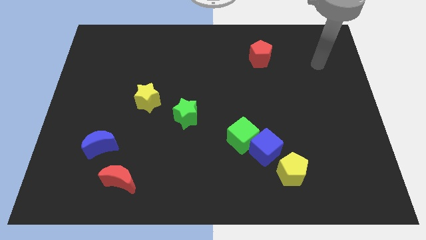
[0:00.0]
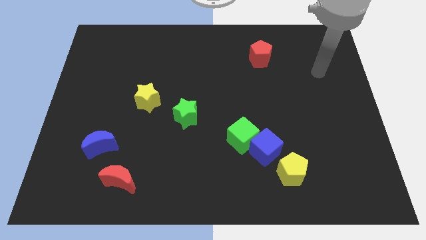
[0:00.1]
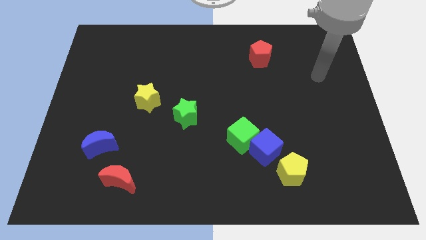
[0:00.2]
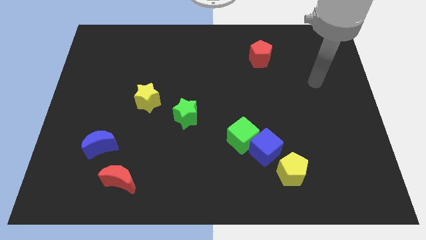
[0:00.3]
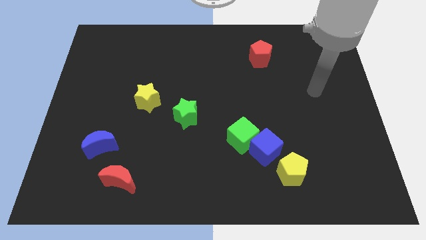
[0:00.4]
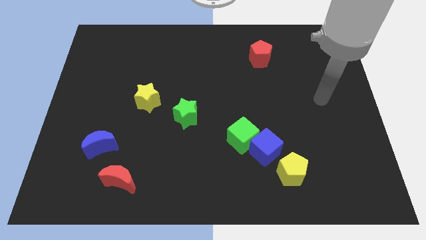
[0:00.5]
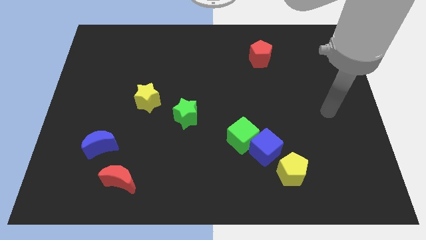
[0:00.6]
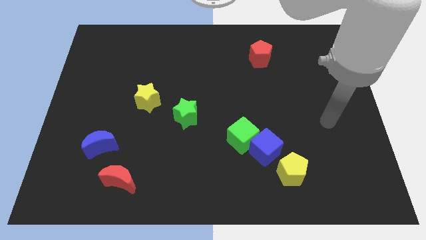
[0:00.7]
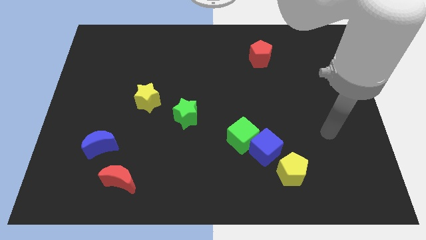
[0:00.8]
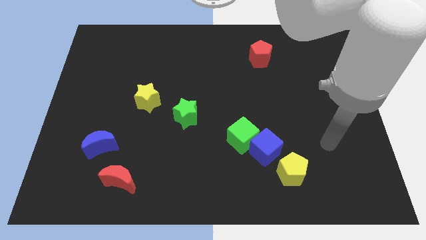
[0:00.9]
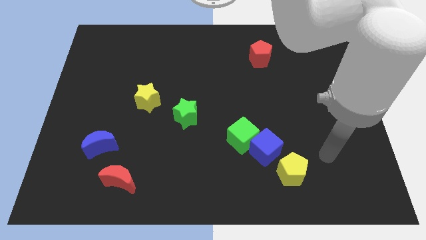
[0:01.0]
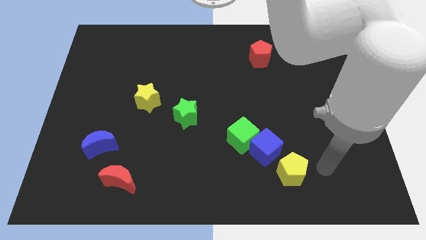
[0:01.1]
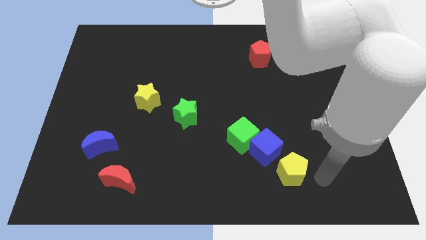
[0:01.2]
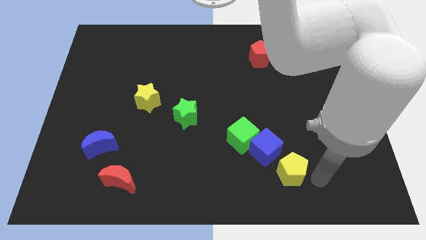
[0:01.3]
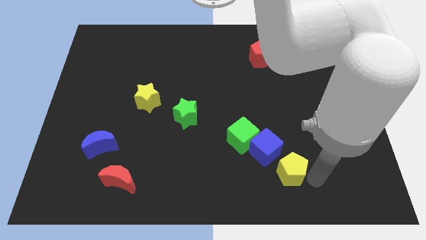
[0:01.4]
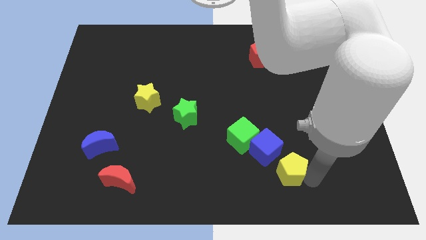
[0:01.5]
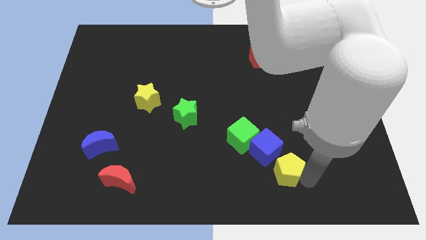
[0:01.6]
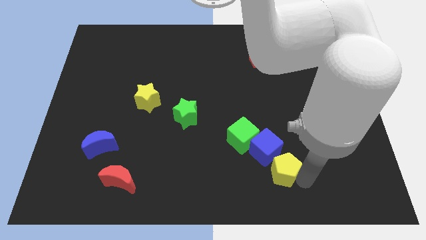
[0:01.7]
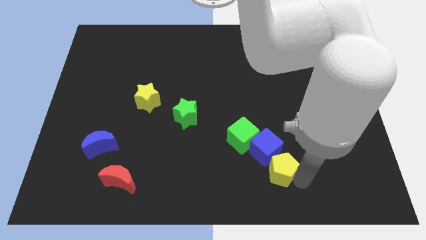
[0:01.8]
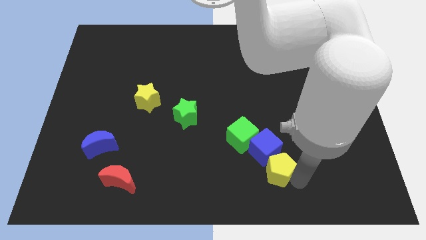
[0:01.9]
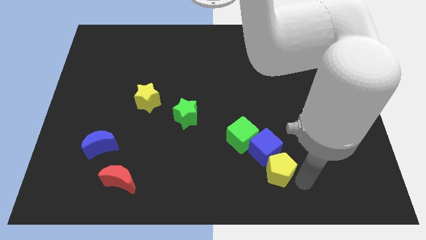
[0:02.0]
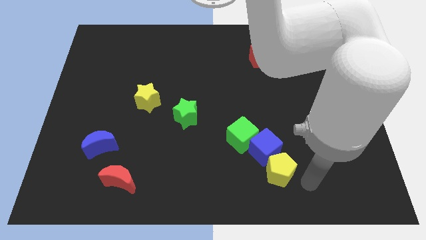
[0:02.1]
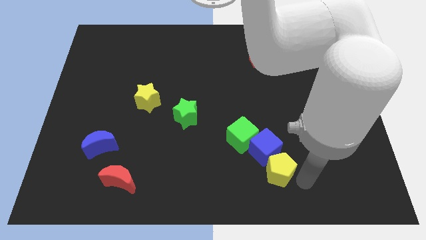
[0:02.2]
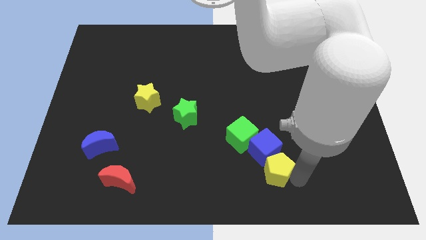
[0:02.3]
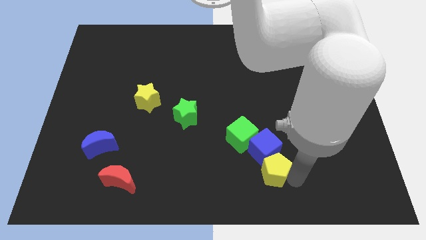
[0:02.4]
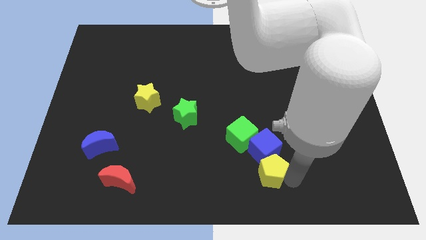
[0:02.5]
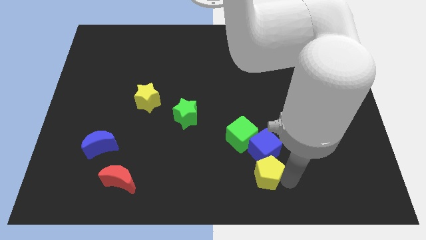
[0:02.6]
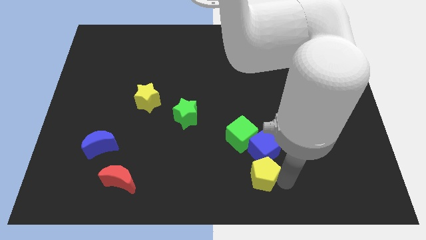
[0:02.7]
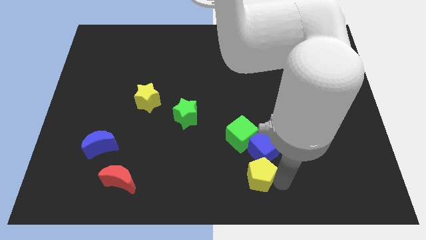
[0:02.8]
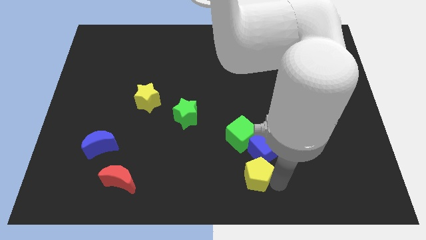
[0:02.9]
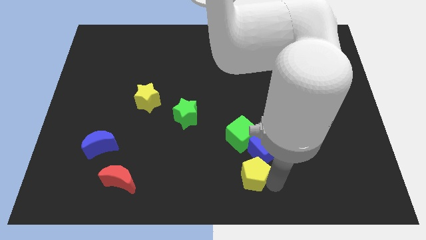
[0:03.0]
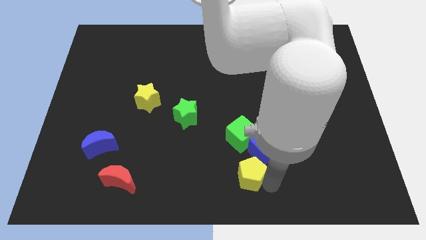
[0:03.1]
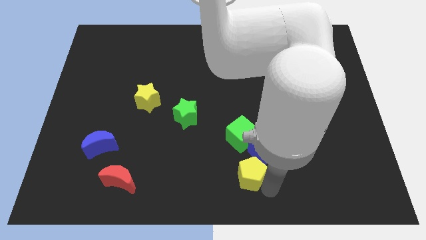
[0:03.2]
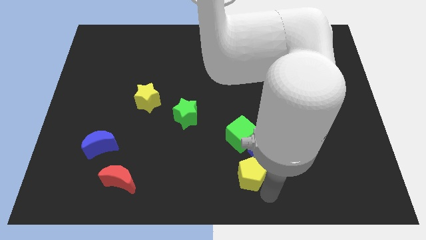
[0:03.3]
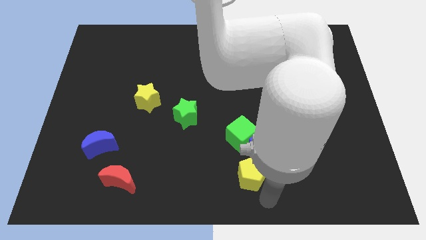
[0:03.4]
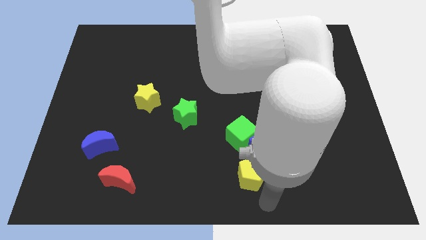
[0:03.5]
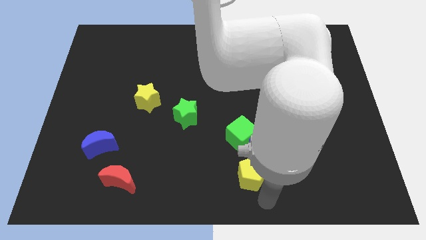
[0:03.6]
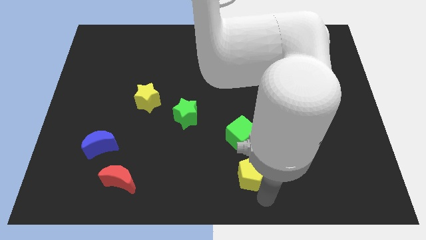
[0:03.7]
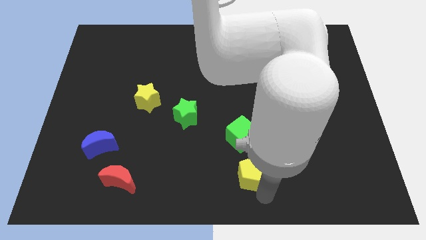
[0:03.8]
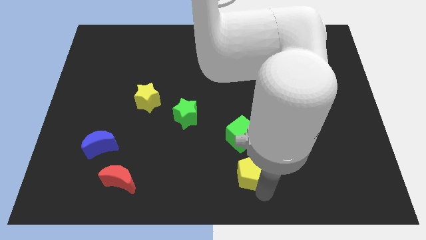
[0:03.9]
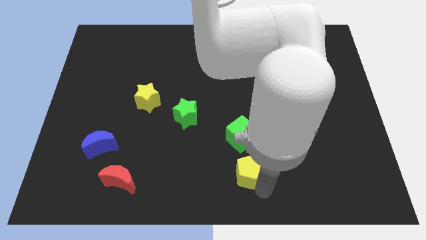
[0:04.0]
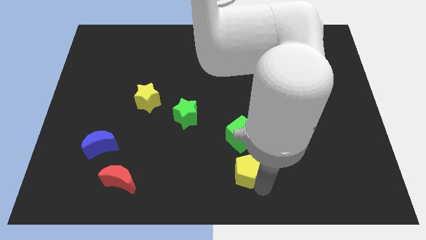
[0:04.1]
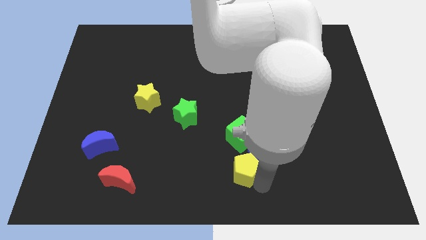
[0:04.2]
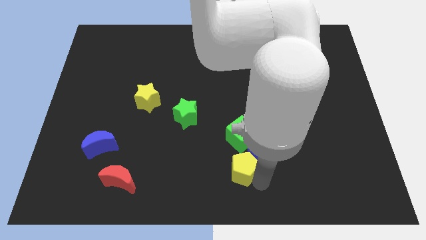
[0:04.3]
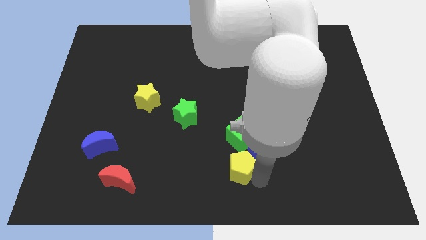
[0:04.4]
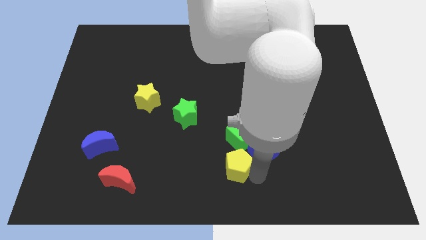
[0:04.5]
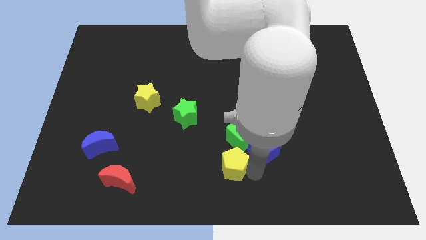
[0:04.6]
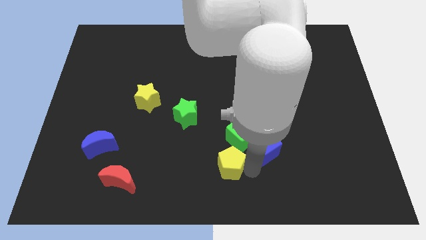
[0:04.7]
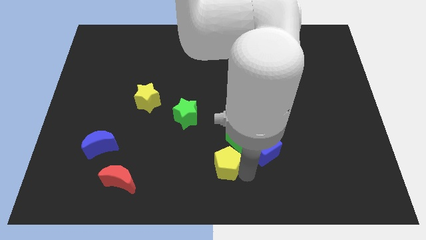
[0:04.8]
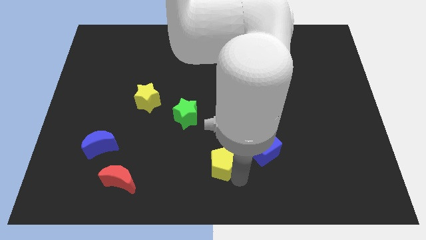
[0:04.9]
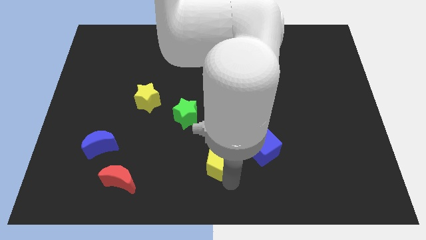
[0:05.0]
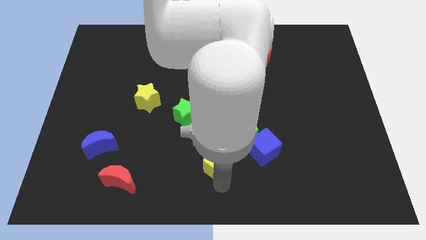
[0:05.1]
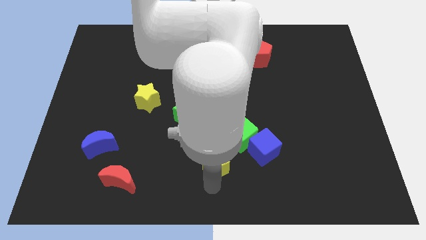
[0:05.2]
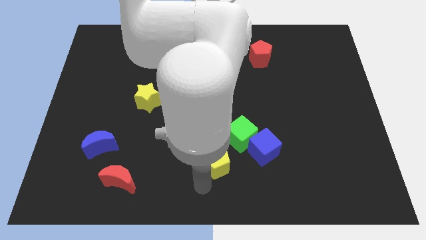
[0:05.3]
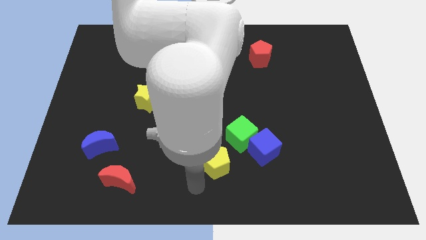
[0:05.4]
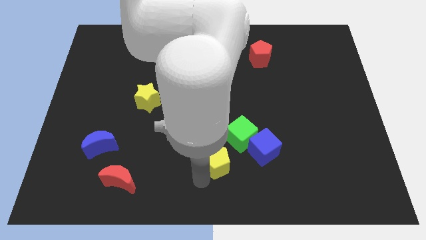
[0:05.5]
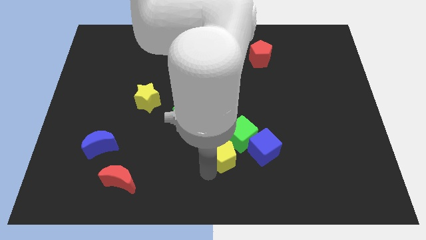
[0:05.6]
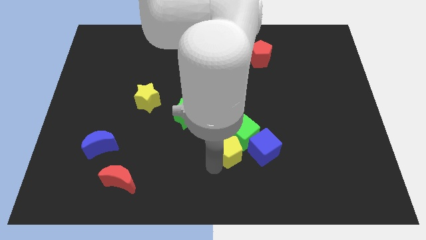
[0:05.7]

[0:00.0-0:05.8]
push the yellow pentagon towards the green cube

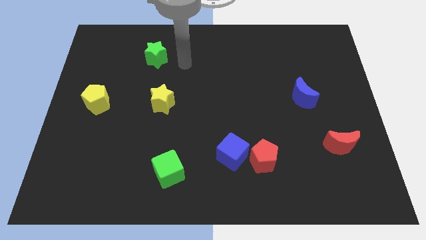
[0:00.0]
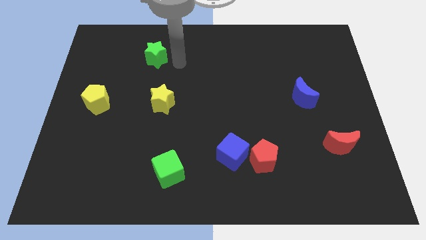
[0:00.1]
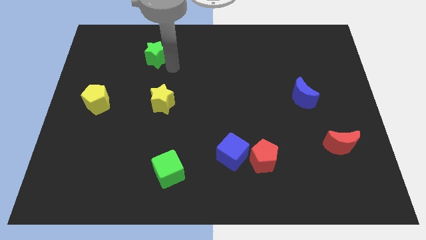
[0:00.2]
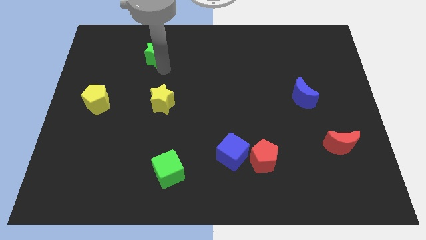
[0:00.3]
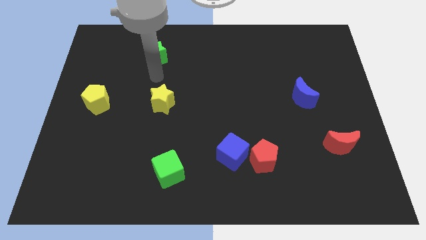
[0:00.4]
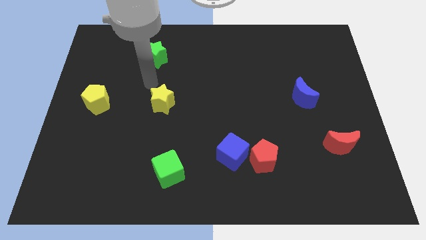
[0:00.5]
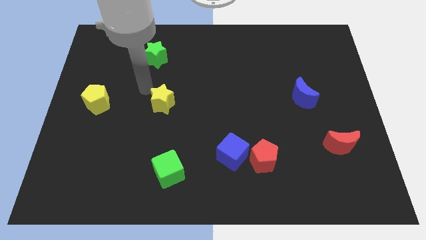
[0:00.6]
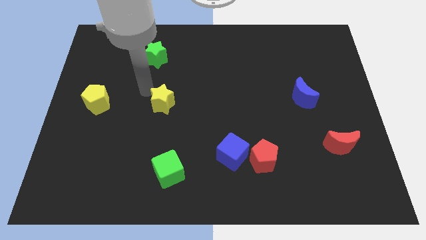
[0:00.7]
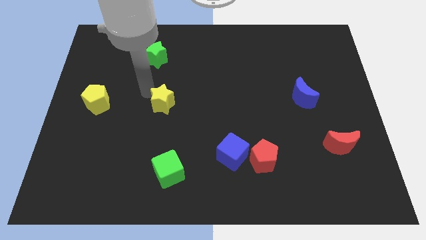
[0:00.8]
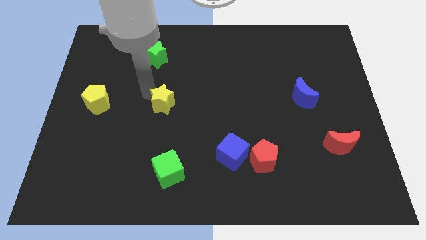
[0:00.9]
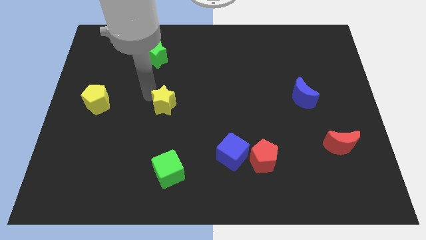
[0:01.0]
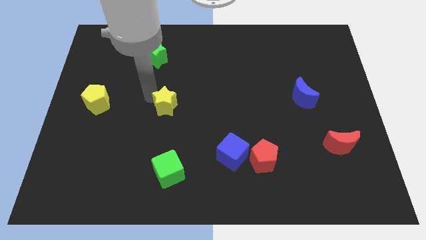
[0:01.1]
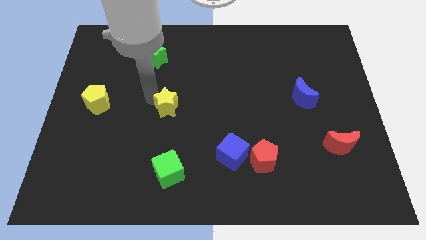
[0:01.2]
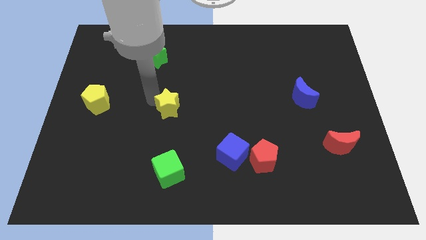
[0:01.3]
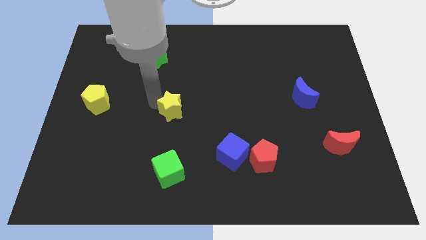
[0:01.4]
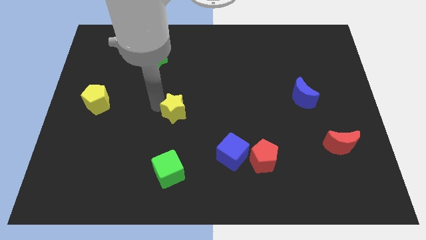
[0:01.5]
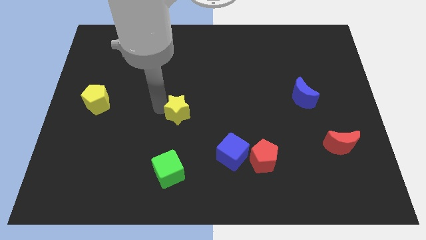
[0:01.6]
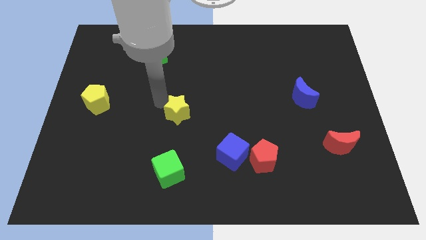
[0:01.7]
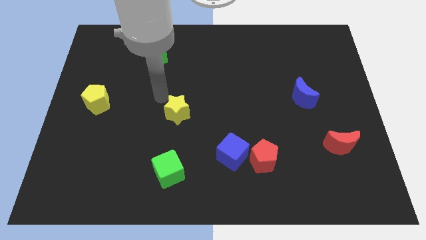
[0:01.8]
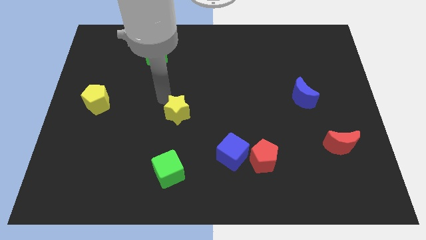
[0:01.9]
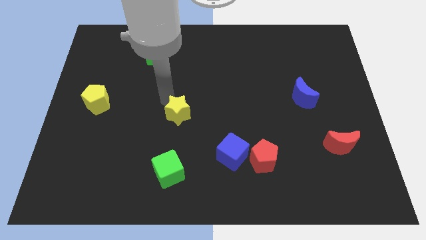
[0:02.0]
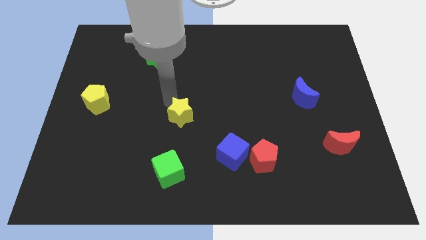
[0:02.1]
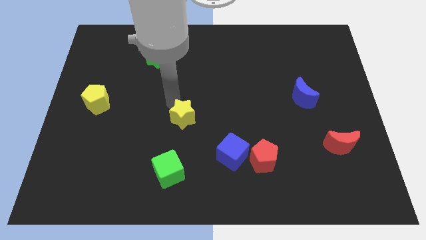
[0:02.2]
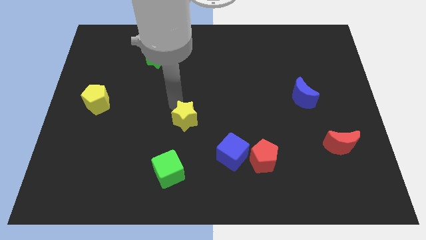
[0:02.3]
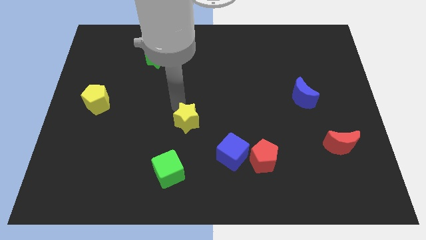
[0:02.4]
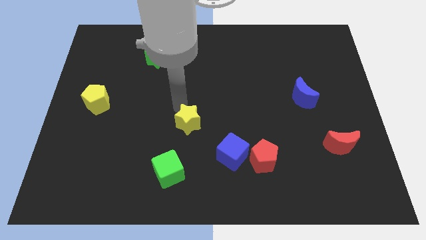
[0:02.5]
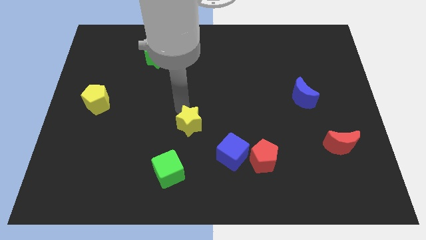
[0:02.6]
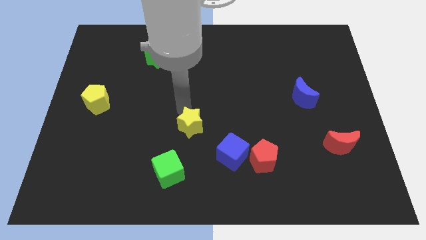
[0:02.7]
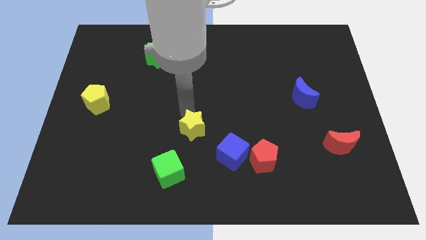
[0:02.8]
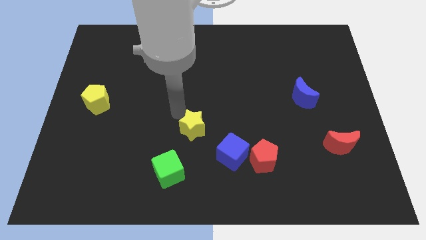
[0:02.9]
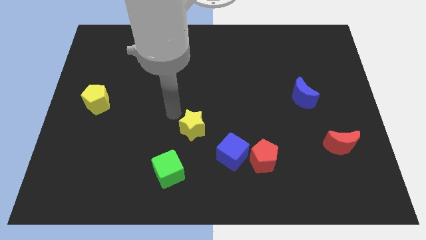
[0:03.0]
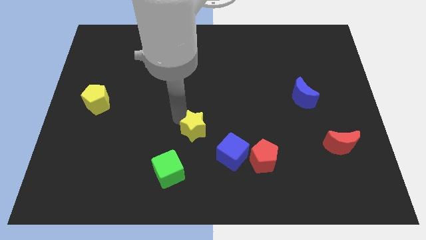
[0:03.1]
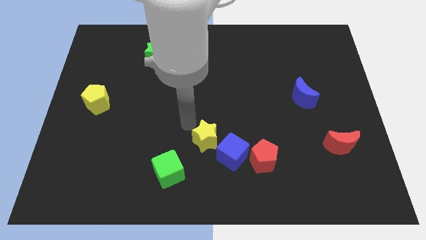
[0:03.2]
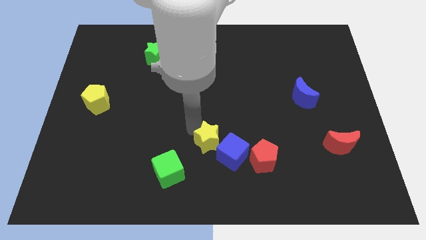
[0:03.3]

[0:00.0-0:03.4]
put the yellow star next to the blue cube
